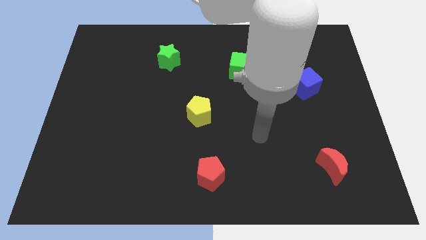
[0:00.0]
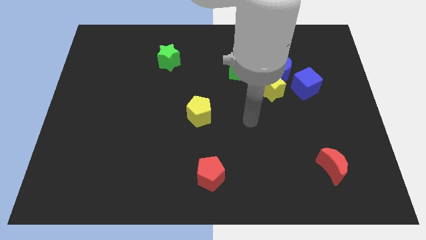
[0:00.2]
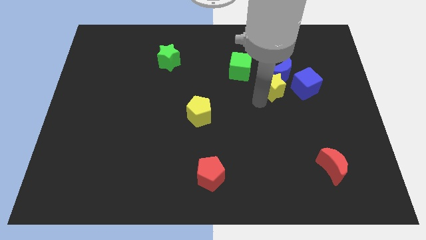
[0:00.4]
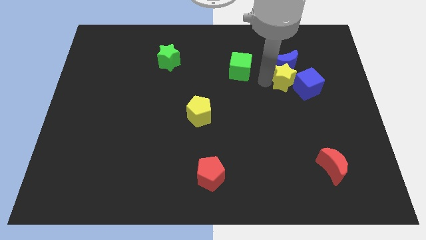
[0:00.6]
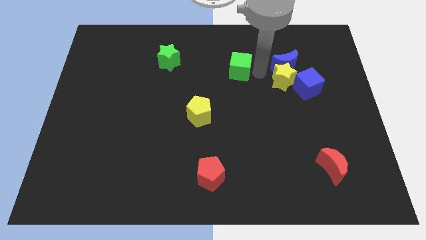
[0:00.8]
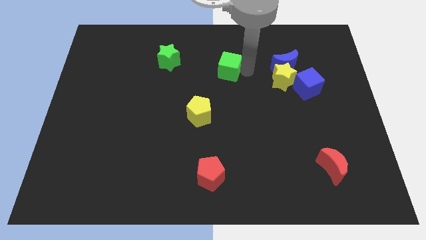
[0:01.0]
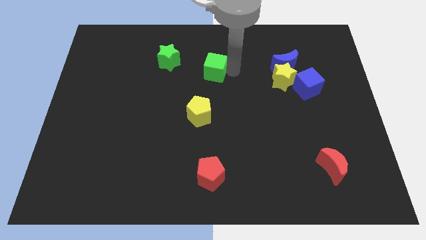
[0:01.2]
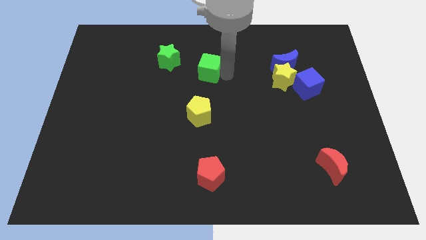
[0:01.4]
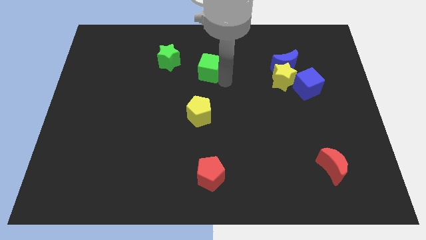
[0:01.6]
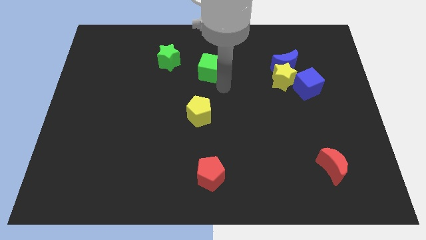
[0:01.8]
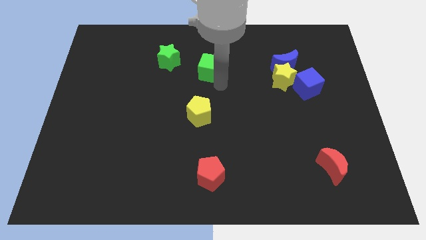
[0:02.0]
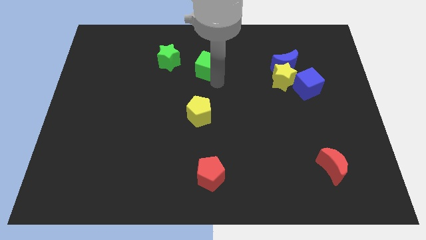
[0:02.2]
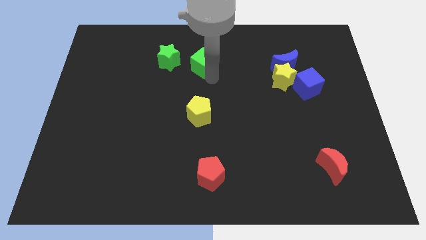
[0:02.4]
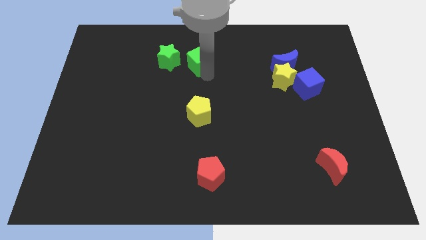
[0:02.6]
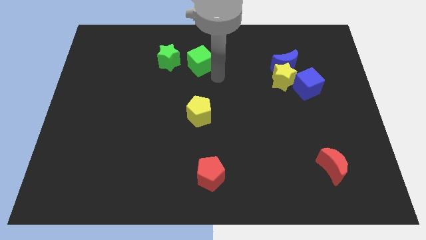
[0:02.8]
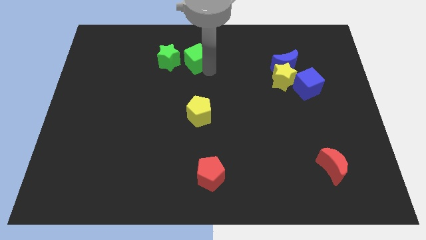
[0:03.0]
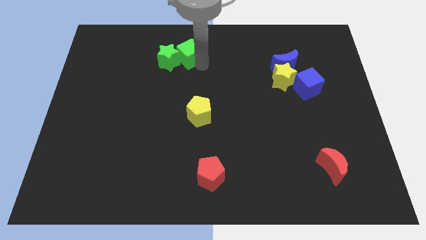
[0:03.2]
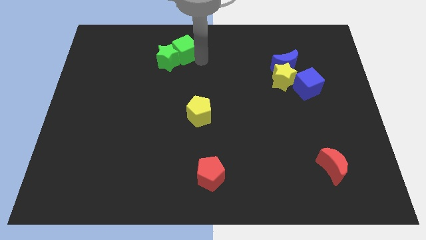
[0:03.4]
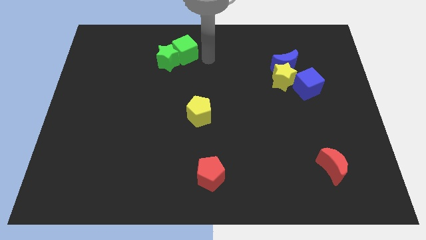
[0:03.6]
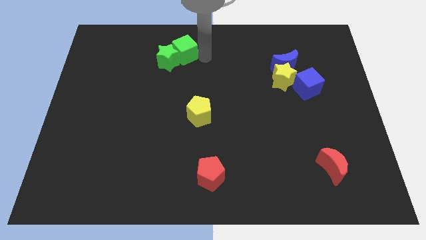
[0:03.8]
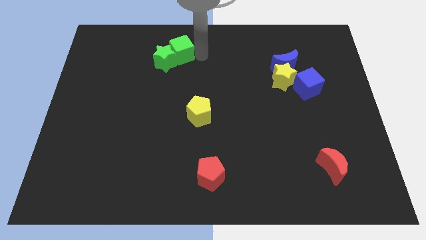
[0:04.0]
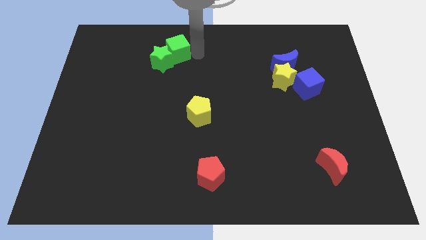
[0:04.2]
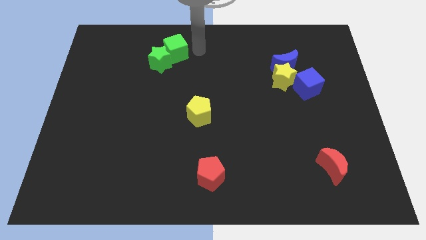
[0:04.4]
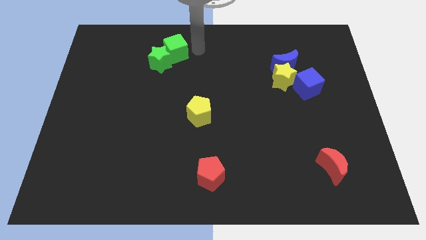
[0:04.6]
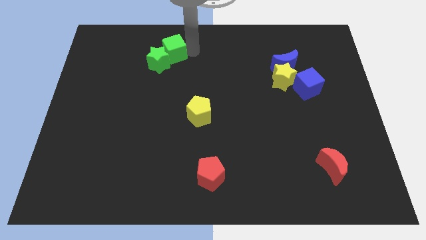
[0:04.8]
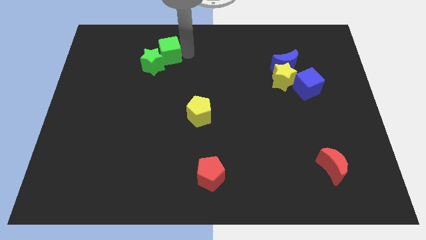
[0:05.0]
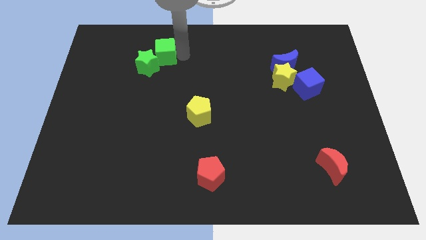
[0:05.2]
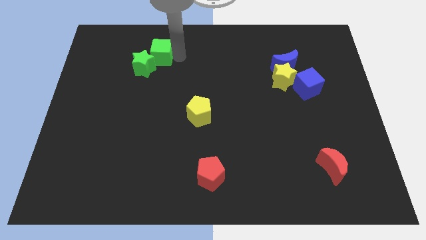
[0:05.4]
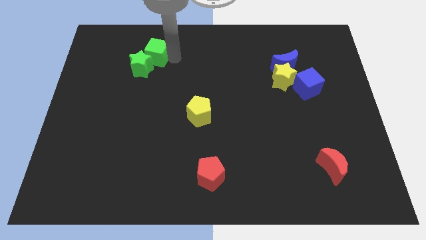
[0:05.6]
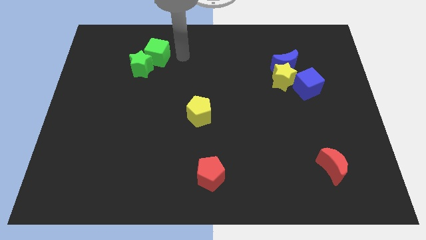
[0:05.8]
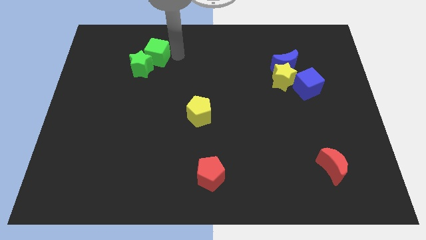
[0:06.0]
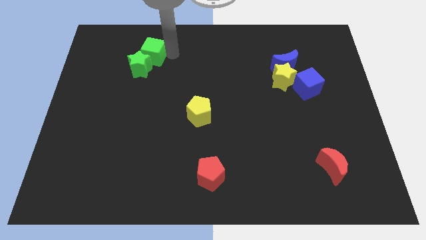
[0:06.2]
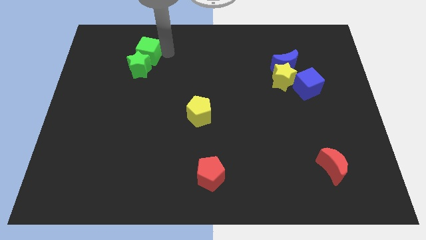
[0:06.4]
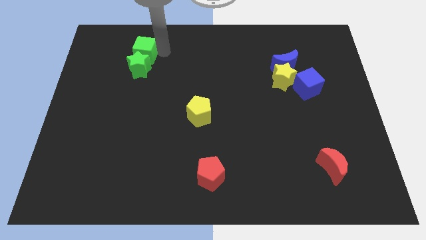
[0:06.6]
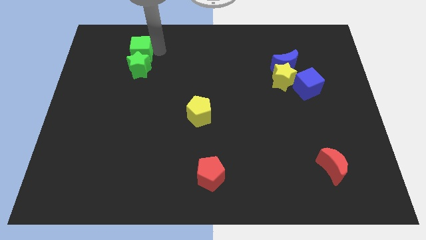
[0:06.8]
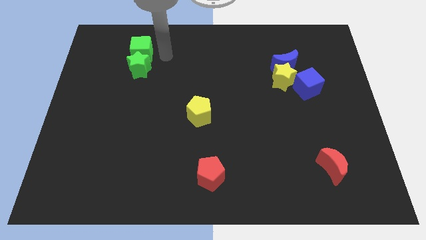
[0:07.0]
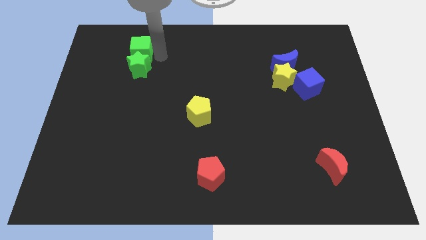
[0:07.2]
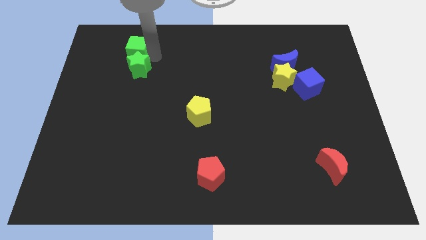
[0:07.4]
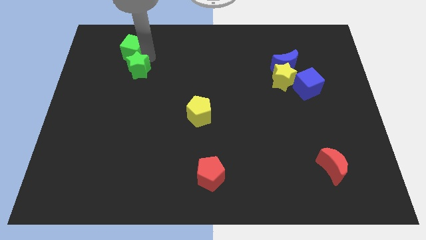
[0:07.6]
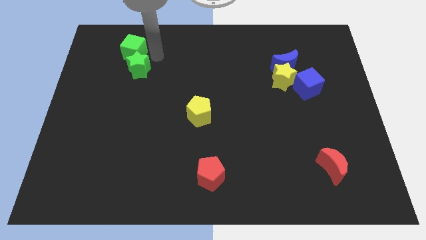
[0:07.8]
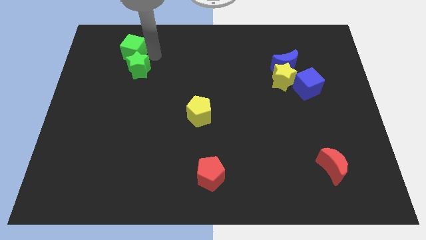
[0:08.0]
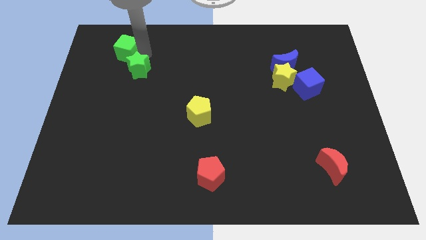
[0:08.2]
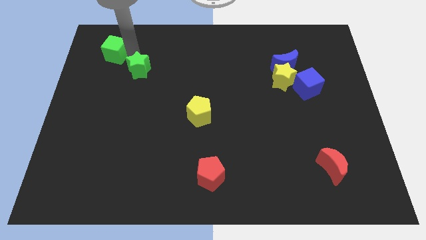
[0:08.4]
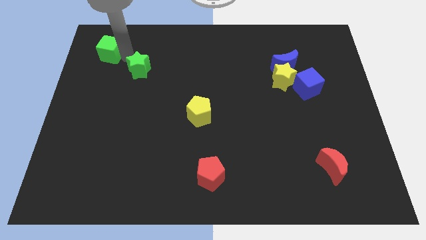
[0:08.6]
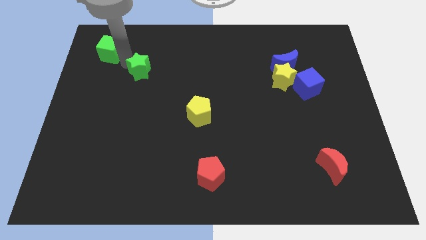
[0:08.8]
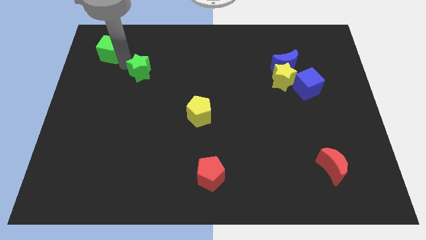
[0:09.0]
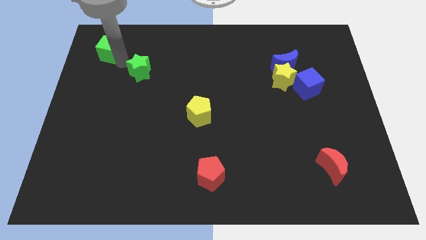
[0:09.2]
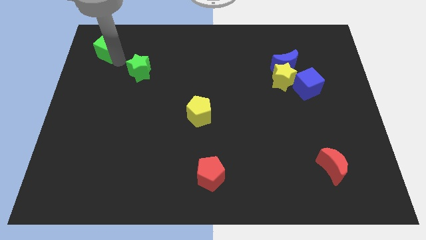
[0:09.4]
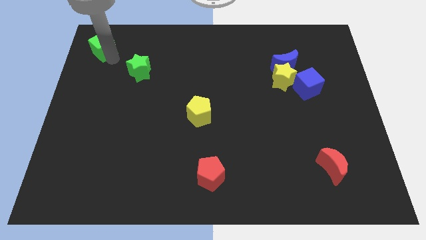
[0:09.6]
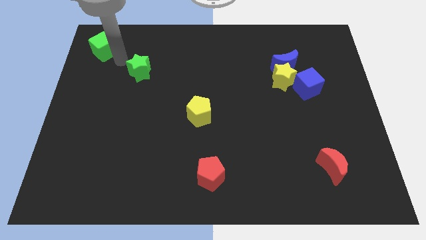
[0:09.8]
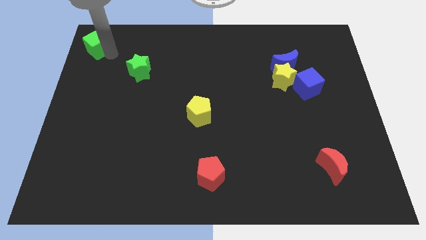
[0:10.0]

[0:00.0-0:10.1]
push the green cube to the top left of the board

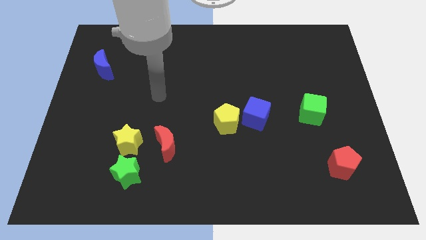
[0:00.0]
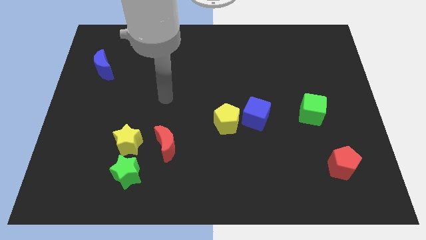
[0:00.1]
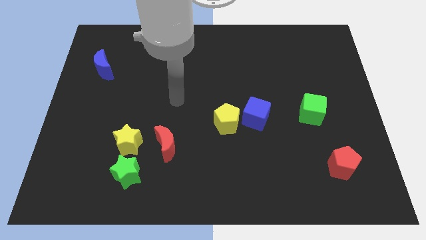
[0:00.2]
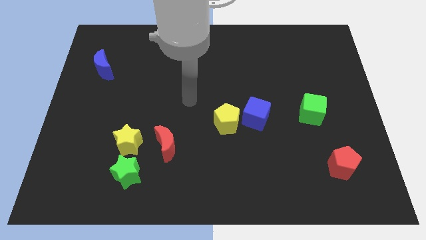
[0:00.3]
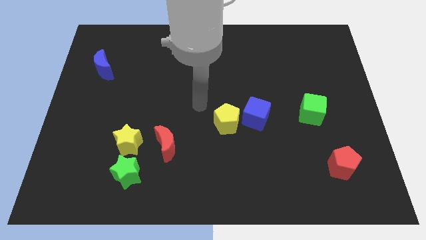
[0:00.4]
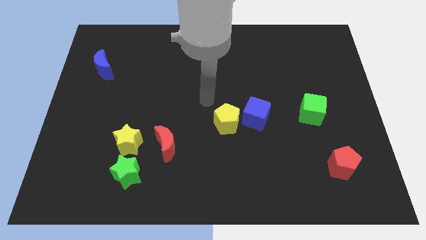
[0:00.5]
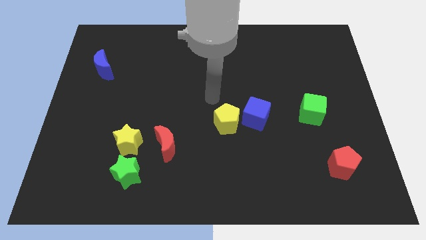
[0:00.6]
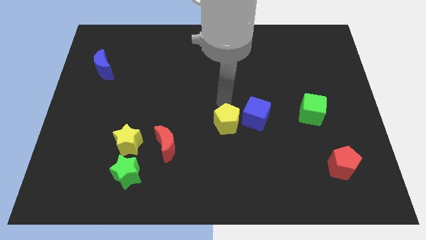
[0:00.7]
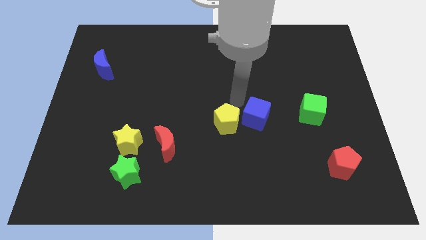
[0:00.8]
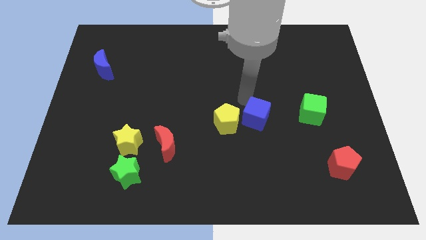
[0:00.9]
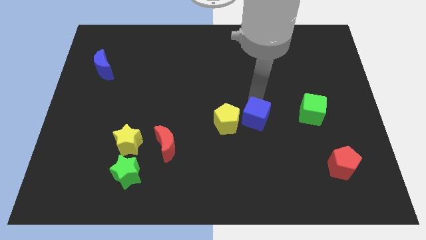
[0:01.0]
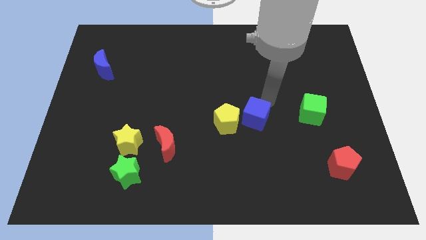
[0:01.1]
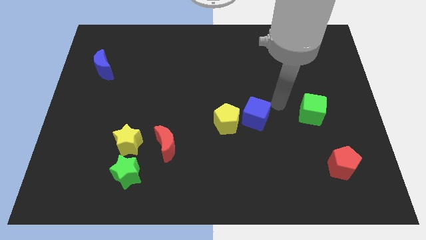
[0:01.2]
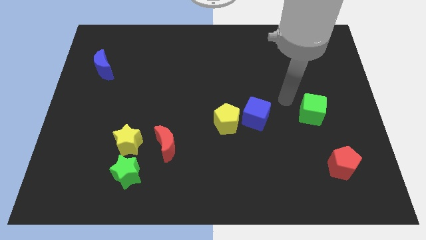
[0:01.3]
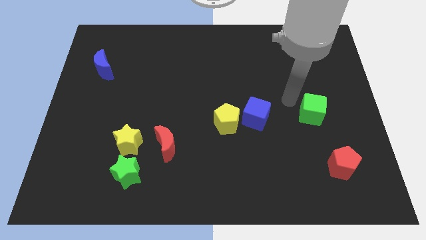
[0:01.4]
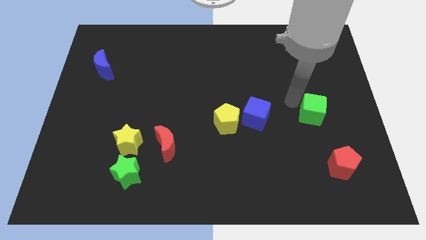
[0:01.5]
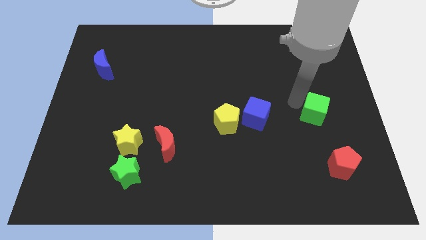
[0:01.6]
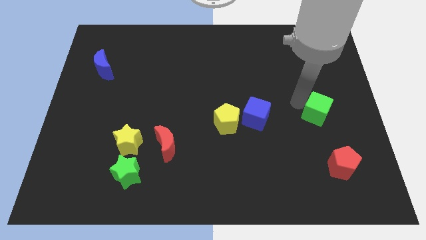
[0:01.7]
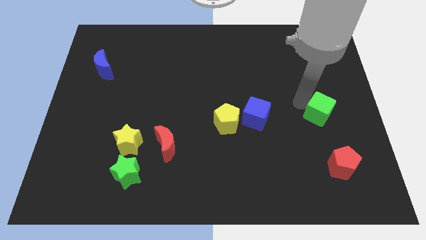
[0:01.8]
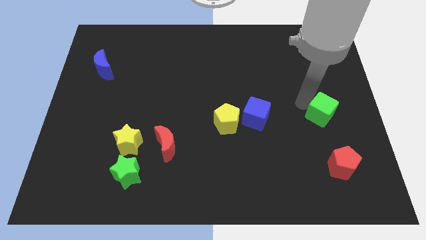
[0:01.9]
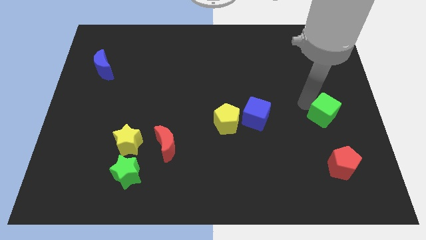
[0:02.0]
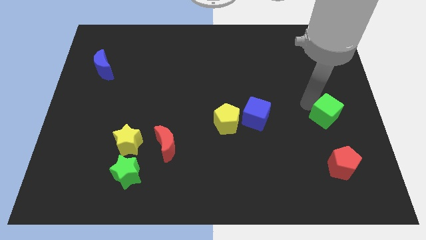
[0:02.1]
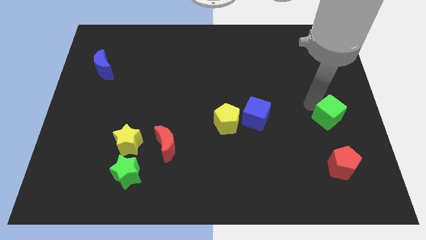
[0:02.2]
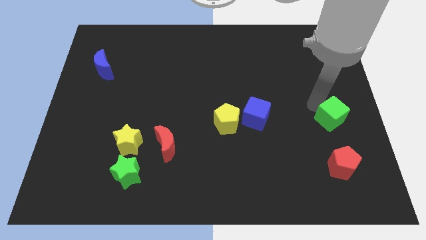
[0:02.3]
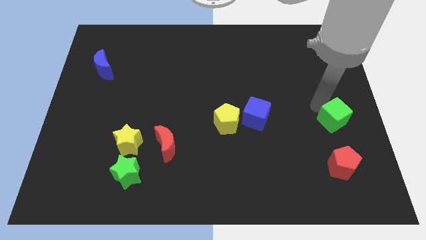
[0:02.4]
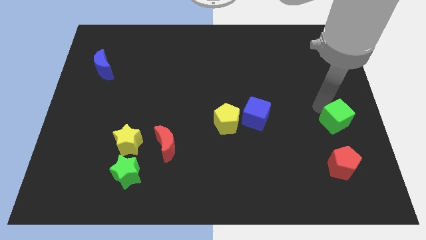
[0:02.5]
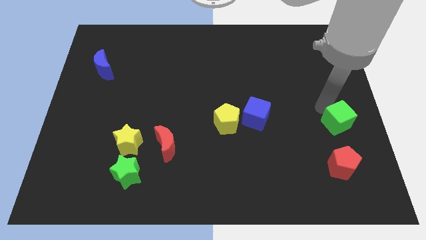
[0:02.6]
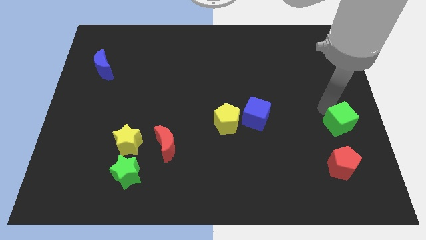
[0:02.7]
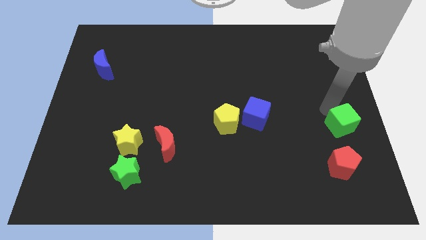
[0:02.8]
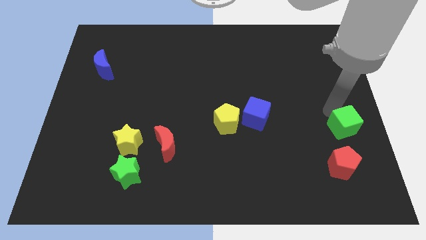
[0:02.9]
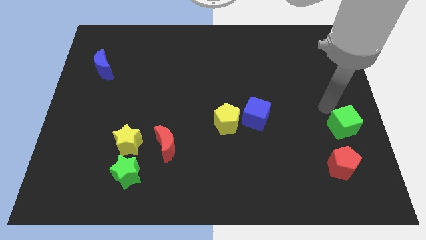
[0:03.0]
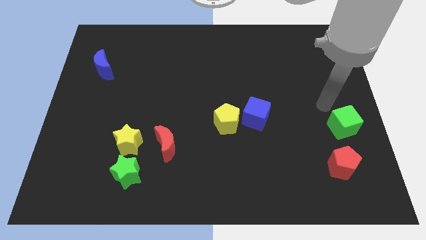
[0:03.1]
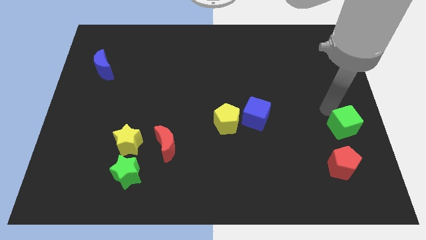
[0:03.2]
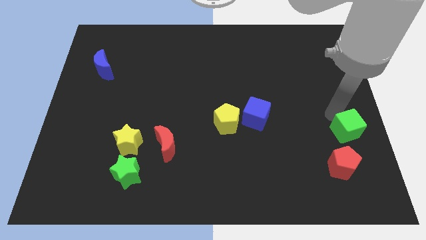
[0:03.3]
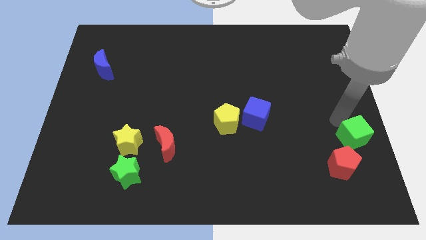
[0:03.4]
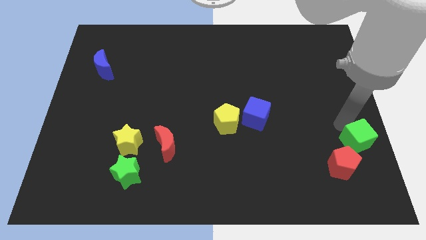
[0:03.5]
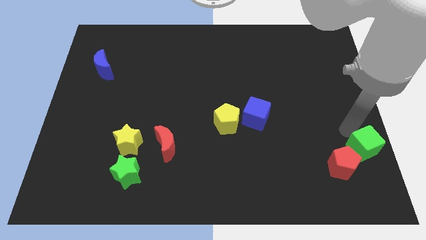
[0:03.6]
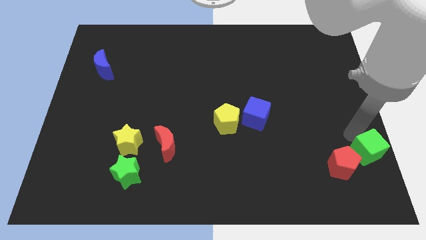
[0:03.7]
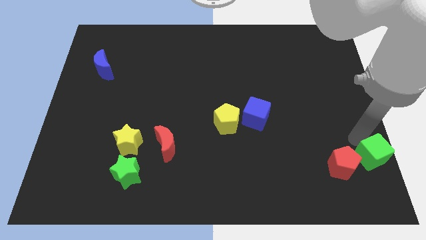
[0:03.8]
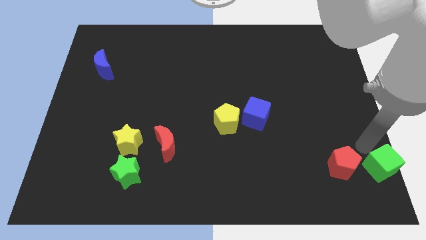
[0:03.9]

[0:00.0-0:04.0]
move the green cube to the bottom right of the board
